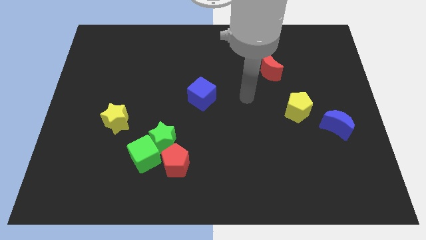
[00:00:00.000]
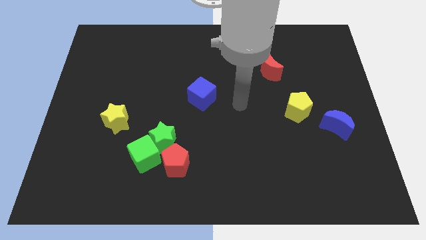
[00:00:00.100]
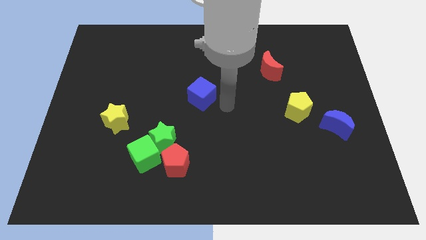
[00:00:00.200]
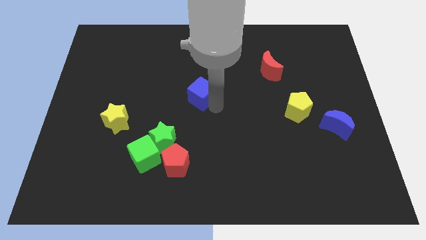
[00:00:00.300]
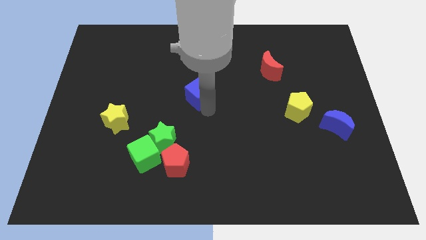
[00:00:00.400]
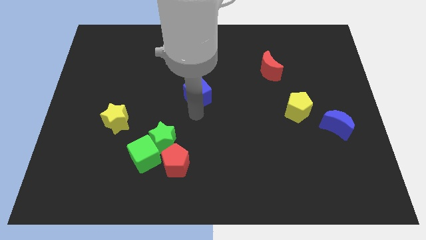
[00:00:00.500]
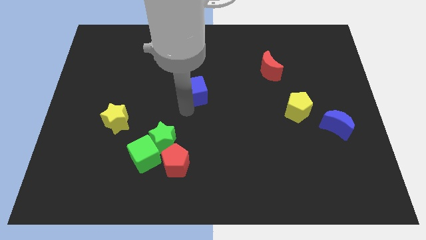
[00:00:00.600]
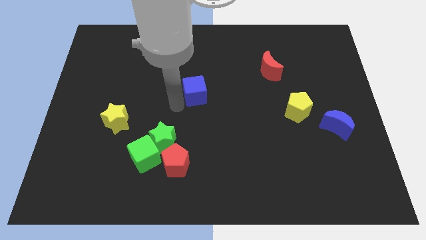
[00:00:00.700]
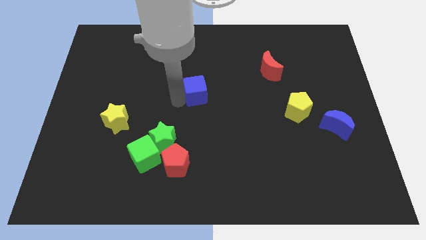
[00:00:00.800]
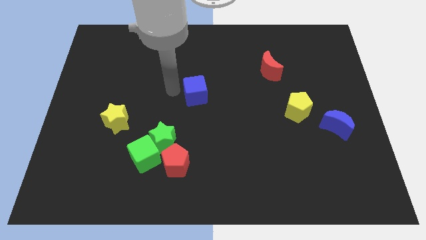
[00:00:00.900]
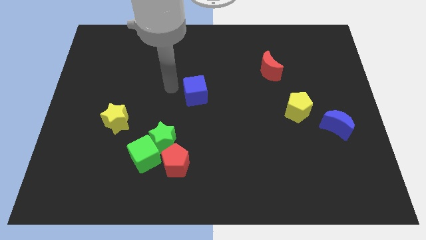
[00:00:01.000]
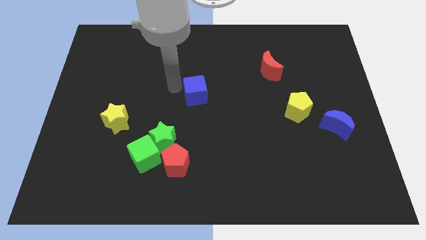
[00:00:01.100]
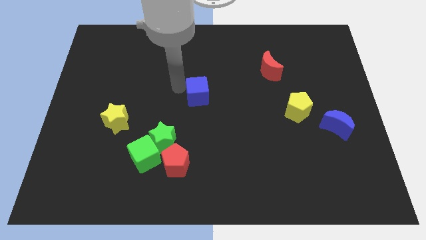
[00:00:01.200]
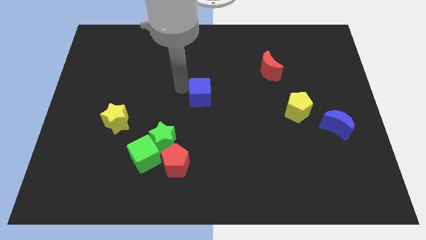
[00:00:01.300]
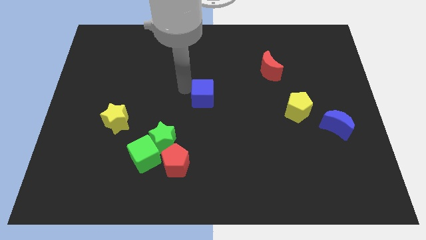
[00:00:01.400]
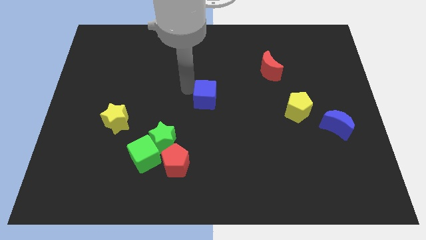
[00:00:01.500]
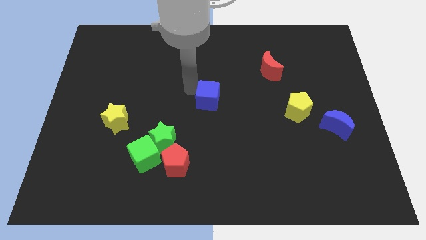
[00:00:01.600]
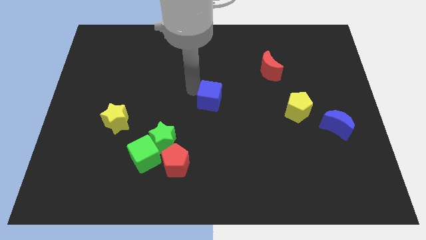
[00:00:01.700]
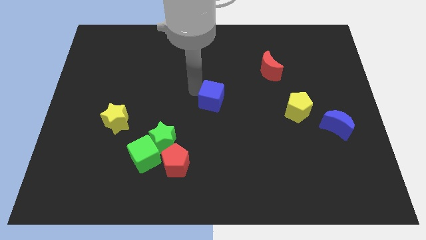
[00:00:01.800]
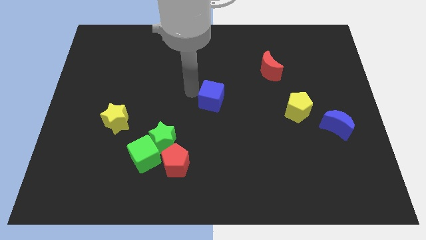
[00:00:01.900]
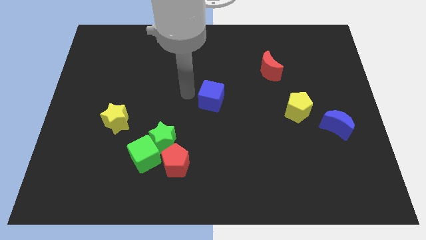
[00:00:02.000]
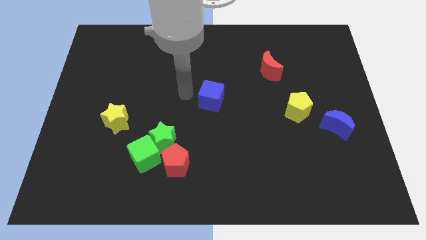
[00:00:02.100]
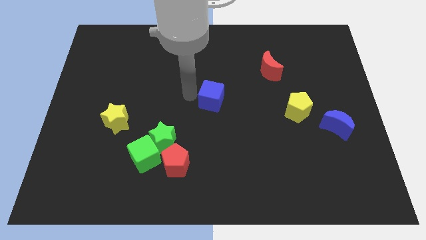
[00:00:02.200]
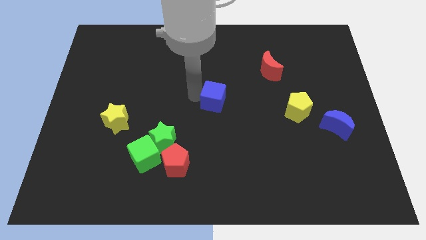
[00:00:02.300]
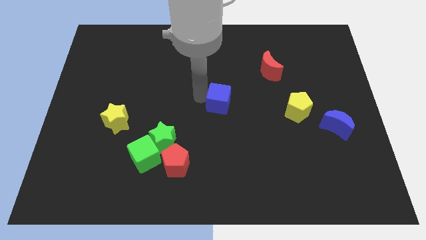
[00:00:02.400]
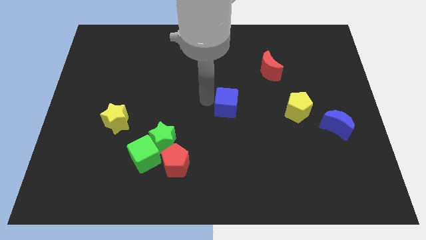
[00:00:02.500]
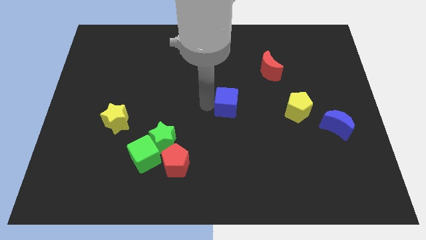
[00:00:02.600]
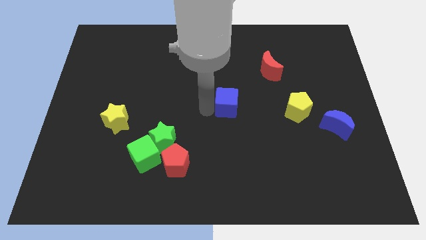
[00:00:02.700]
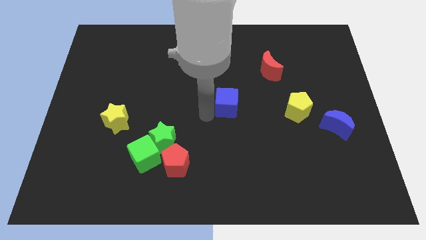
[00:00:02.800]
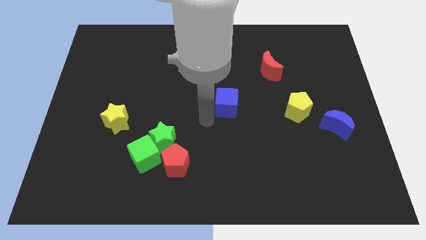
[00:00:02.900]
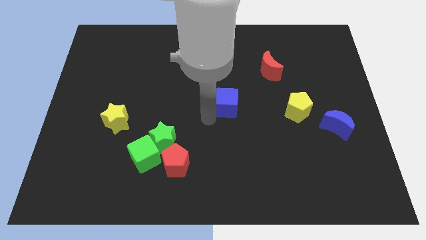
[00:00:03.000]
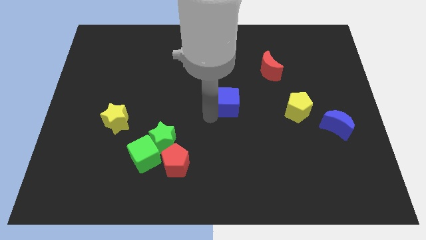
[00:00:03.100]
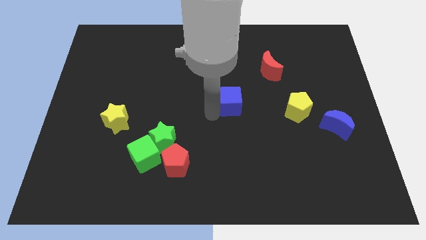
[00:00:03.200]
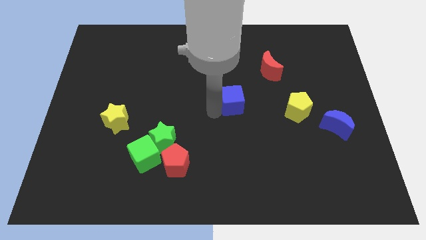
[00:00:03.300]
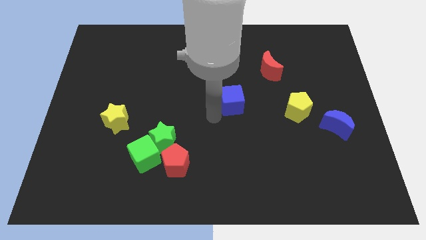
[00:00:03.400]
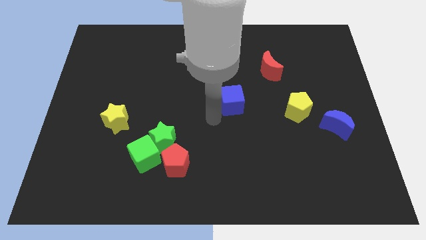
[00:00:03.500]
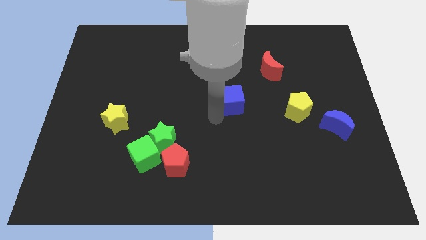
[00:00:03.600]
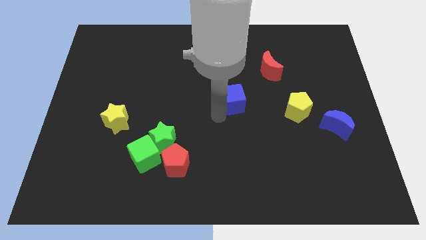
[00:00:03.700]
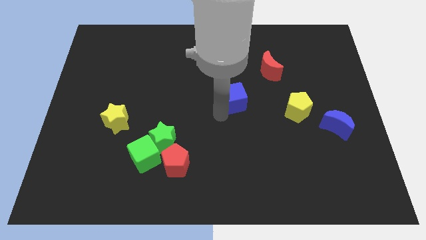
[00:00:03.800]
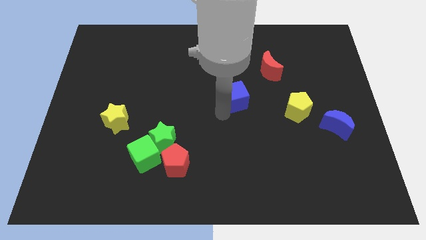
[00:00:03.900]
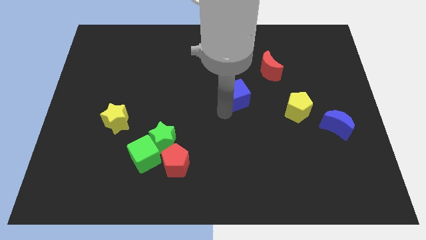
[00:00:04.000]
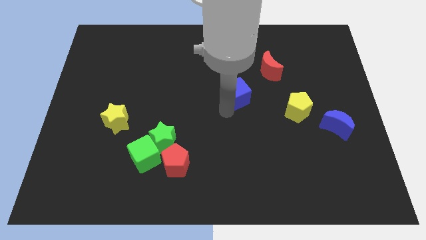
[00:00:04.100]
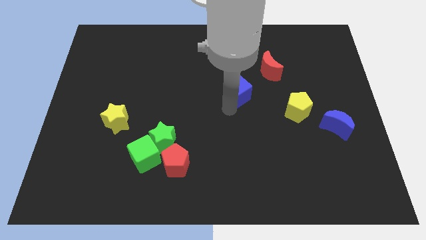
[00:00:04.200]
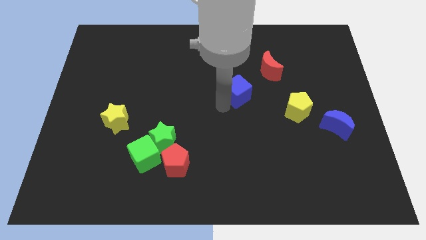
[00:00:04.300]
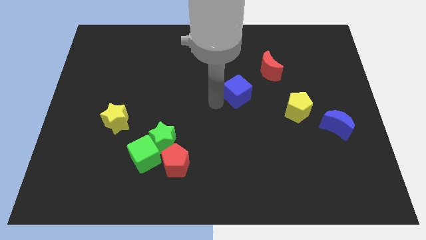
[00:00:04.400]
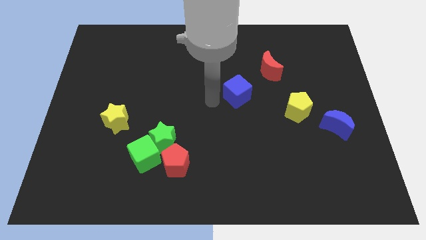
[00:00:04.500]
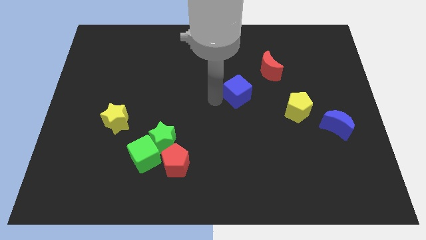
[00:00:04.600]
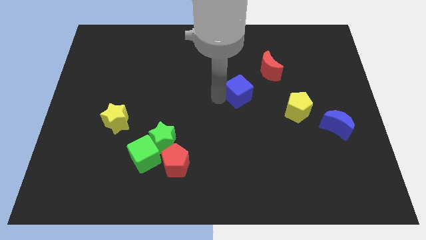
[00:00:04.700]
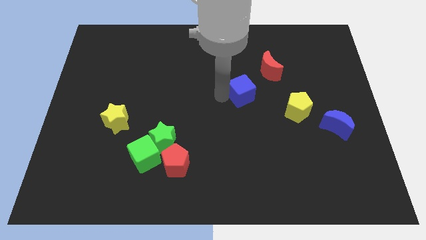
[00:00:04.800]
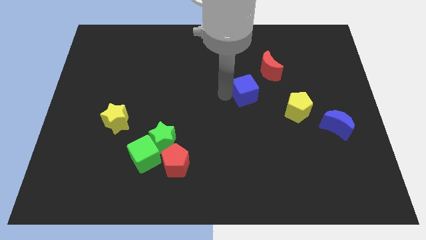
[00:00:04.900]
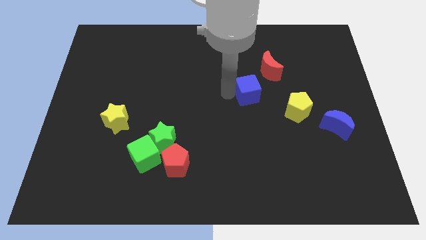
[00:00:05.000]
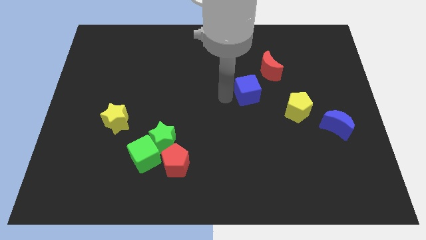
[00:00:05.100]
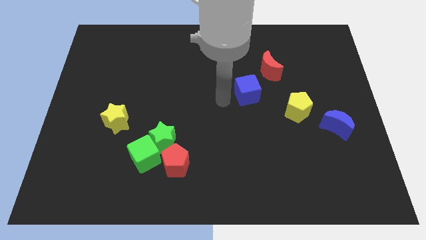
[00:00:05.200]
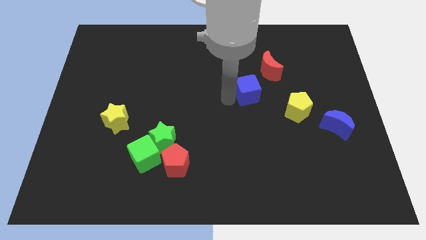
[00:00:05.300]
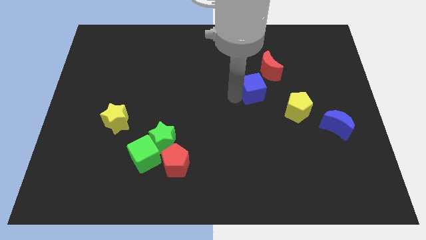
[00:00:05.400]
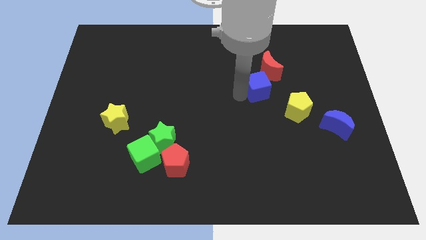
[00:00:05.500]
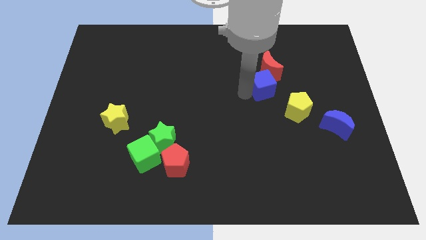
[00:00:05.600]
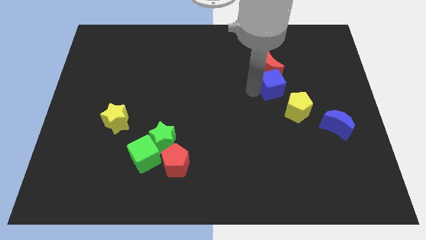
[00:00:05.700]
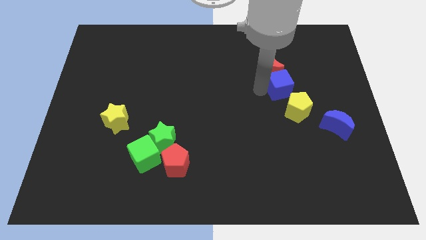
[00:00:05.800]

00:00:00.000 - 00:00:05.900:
slide the blue cube above the yellow pentagon

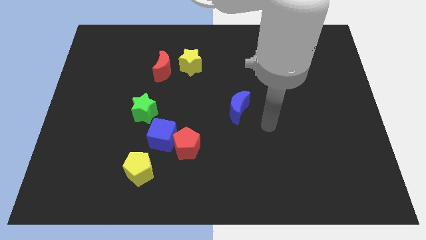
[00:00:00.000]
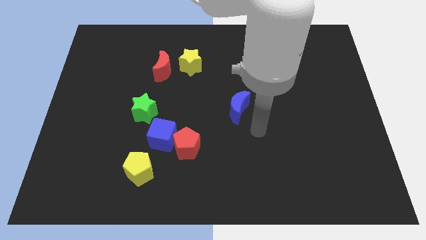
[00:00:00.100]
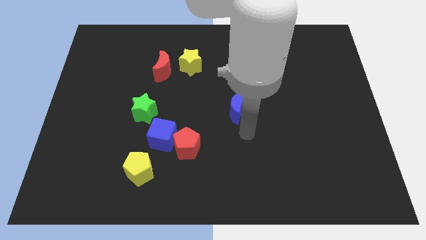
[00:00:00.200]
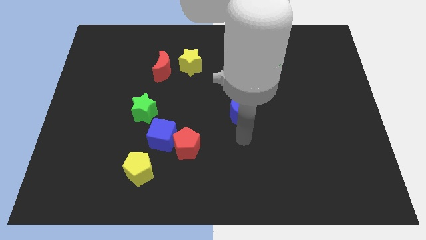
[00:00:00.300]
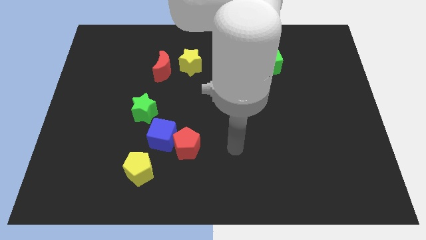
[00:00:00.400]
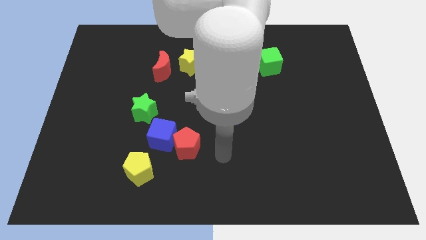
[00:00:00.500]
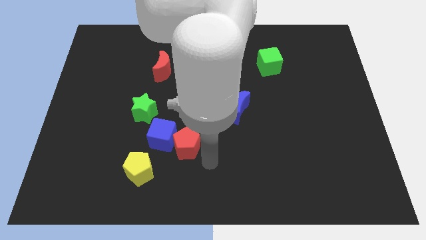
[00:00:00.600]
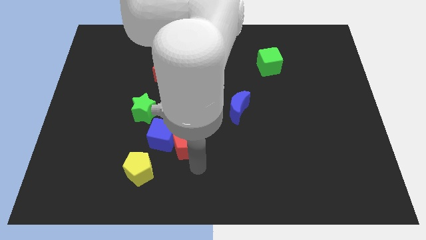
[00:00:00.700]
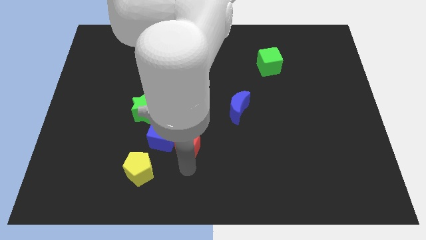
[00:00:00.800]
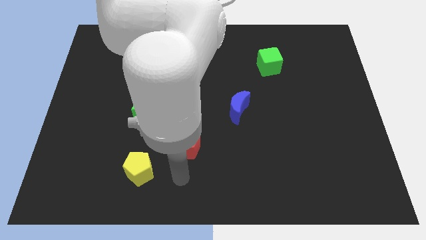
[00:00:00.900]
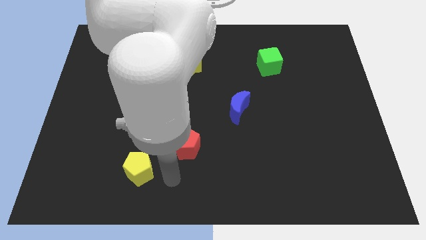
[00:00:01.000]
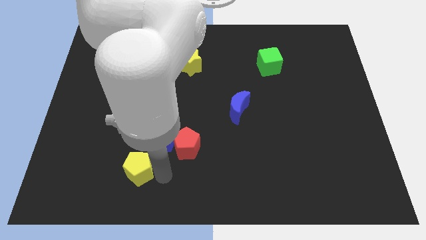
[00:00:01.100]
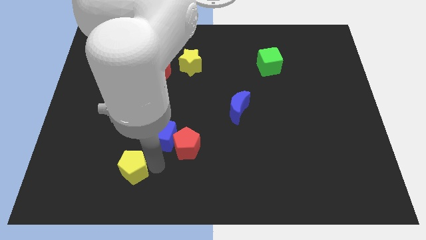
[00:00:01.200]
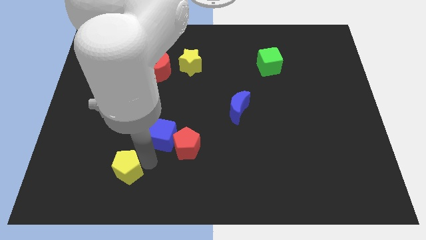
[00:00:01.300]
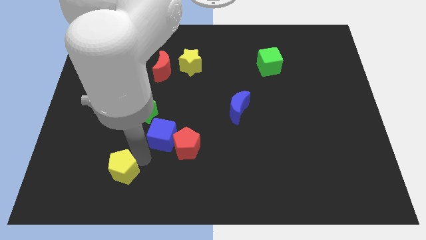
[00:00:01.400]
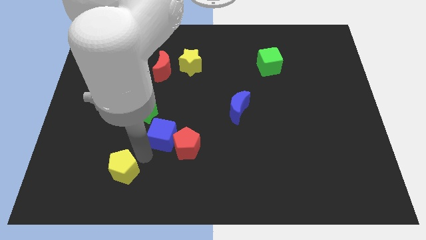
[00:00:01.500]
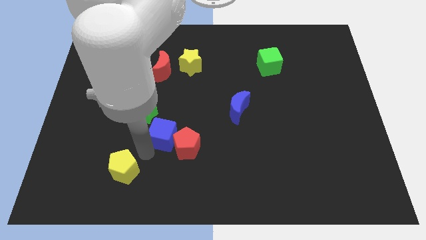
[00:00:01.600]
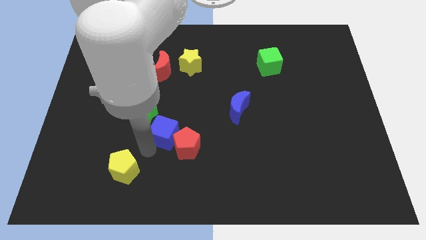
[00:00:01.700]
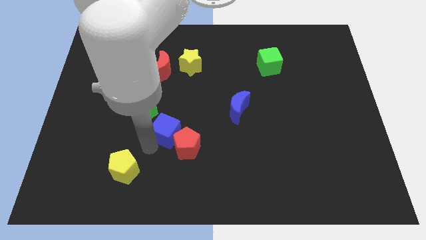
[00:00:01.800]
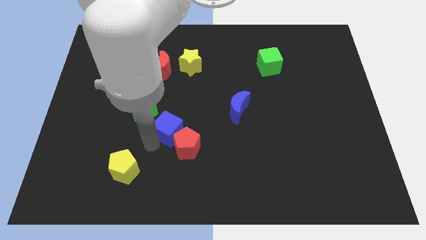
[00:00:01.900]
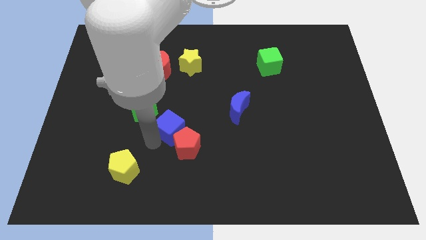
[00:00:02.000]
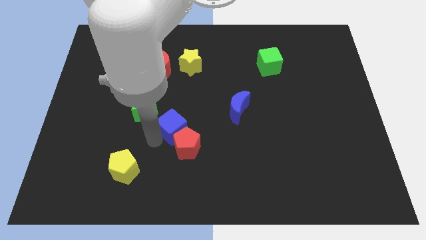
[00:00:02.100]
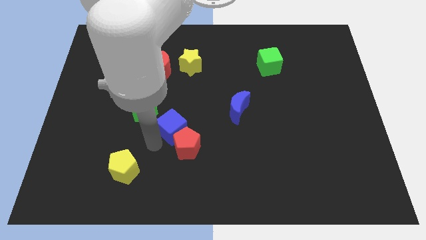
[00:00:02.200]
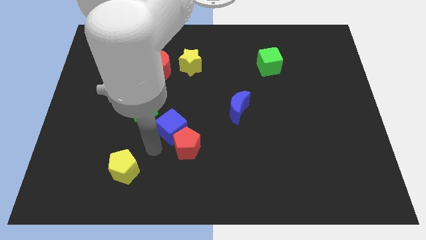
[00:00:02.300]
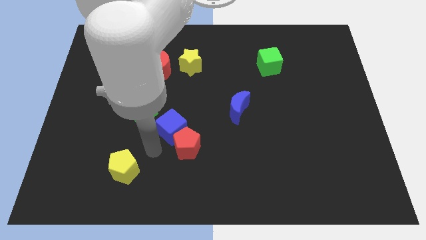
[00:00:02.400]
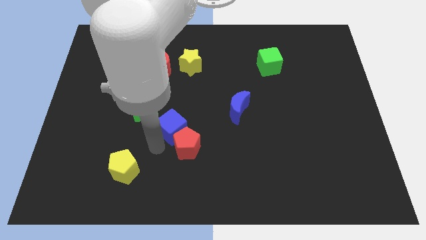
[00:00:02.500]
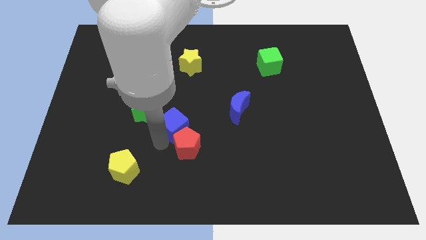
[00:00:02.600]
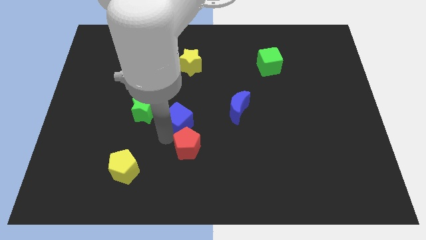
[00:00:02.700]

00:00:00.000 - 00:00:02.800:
slide the blue cube to the left of the blue moon
